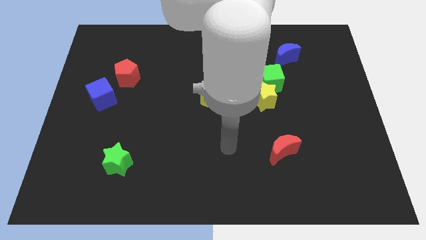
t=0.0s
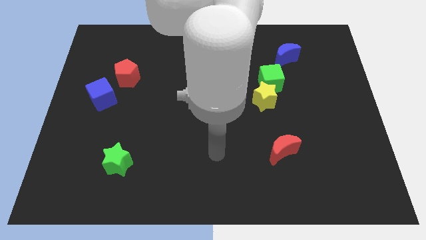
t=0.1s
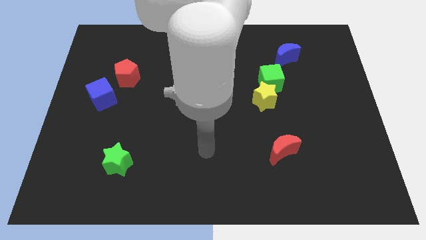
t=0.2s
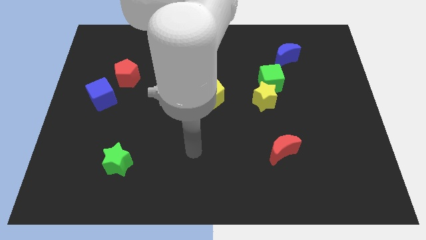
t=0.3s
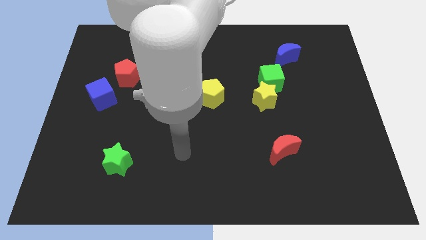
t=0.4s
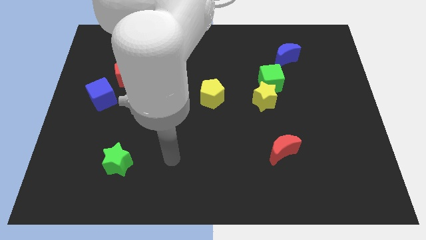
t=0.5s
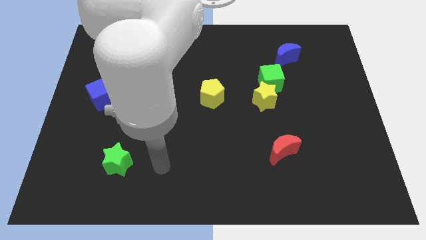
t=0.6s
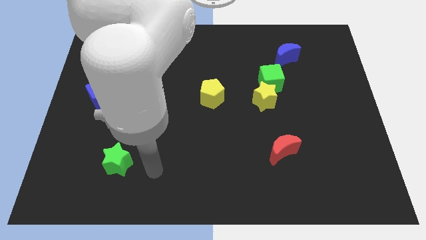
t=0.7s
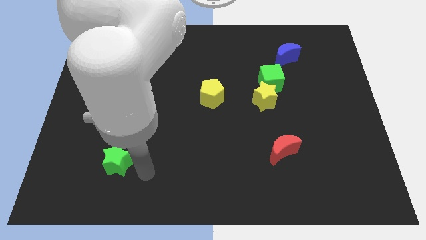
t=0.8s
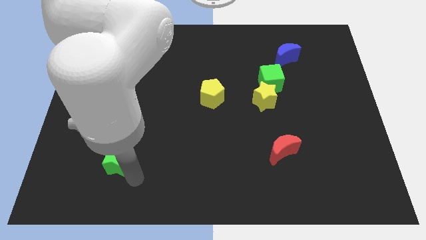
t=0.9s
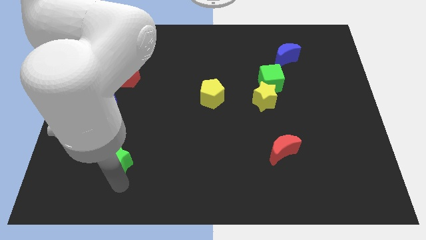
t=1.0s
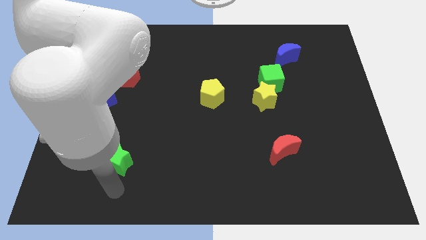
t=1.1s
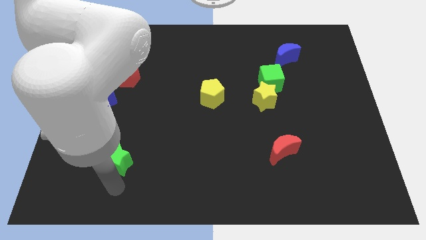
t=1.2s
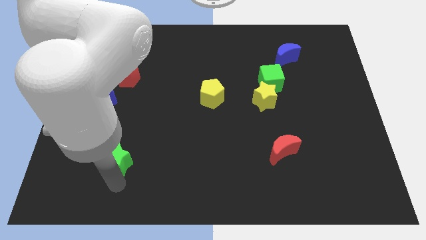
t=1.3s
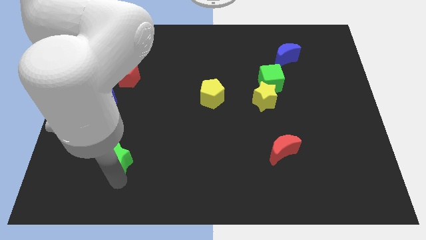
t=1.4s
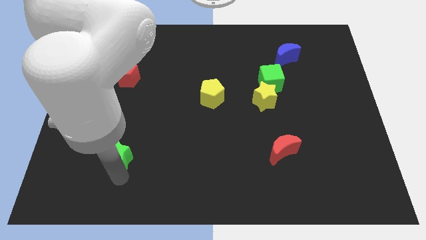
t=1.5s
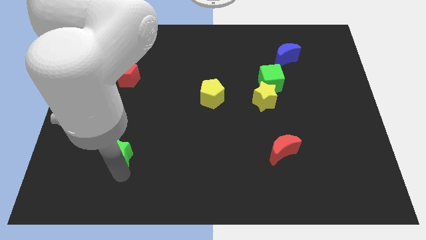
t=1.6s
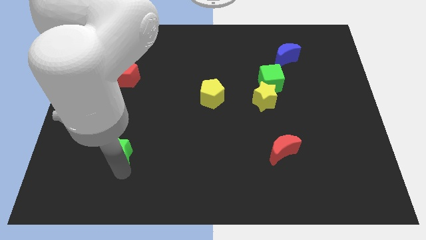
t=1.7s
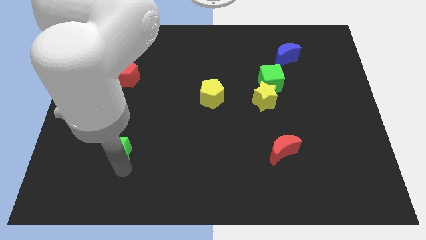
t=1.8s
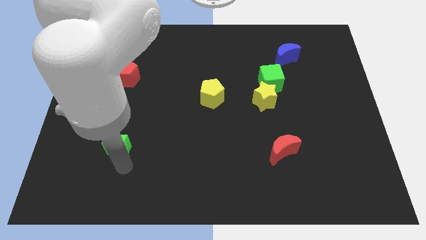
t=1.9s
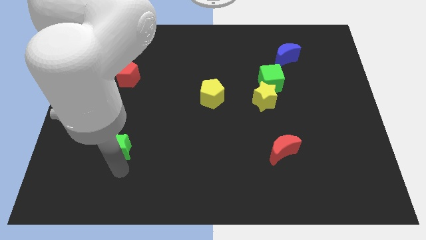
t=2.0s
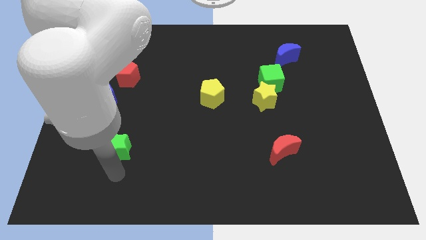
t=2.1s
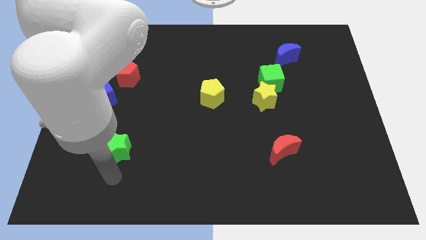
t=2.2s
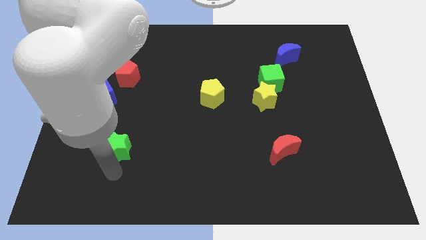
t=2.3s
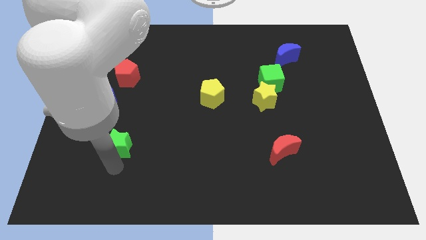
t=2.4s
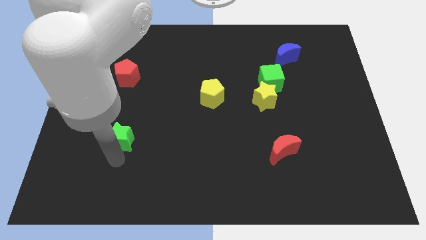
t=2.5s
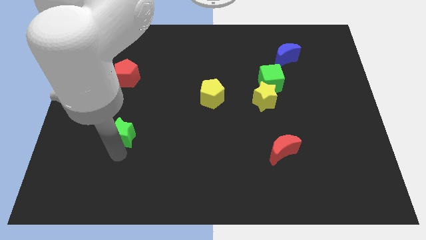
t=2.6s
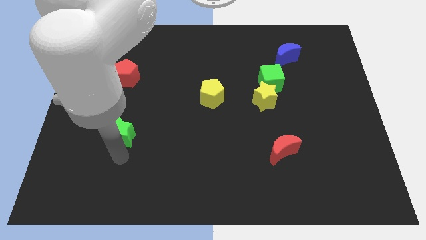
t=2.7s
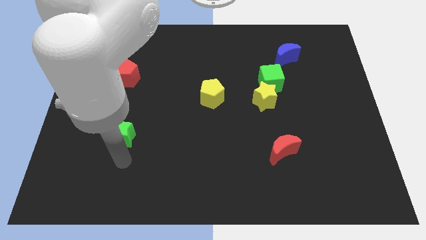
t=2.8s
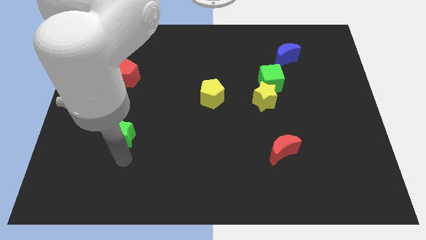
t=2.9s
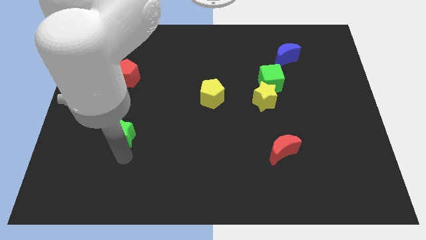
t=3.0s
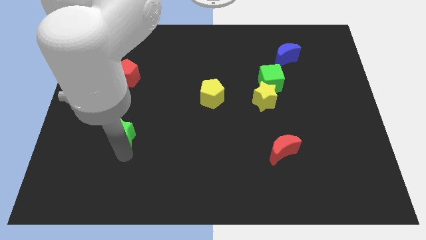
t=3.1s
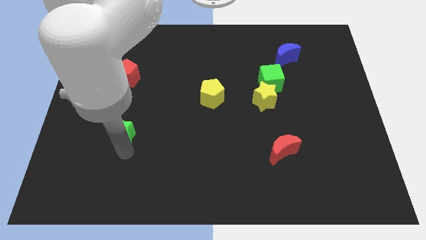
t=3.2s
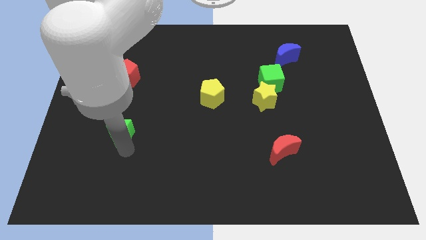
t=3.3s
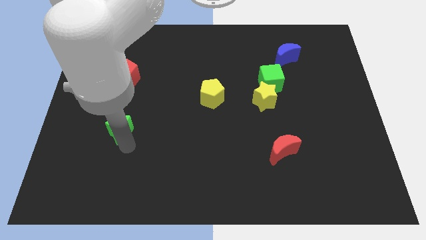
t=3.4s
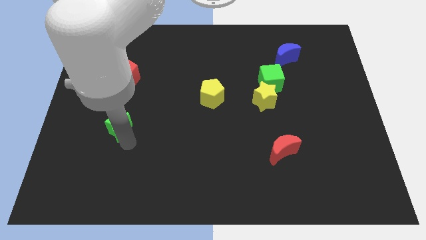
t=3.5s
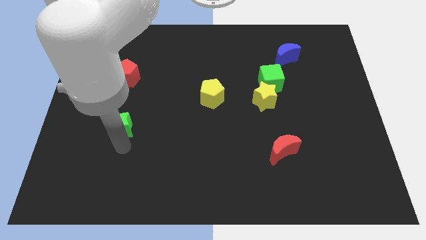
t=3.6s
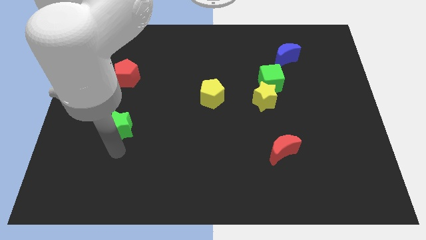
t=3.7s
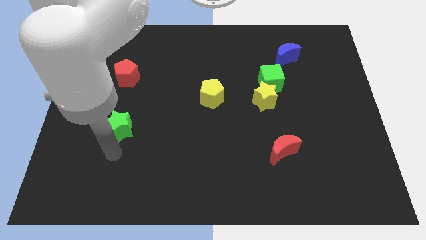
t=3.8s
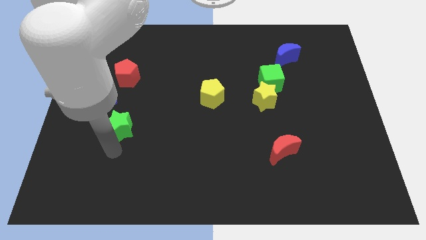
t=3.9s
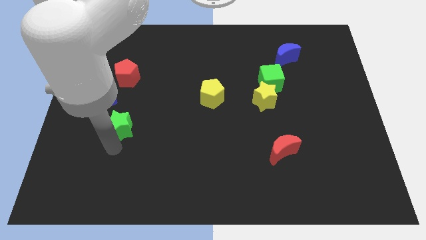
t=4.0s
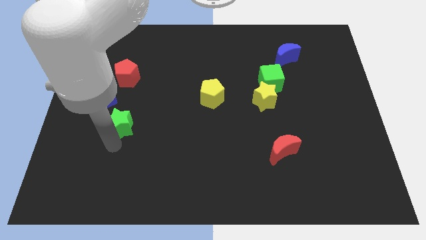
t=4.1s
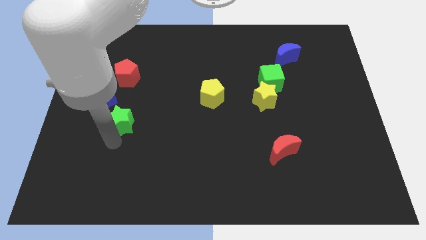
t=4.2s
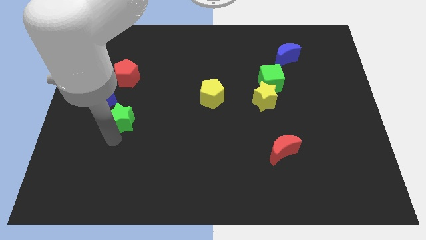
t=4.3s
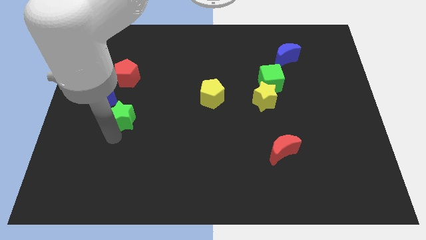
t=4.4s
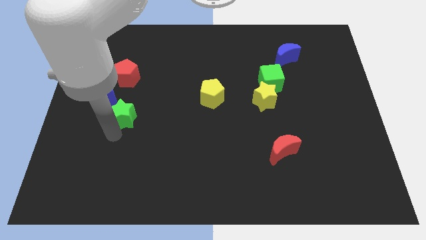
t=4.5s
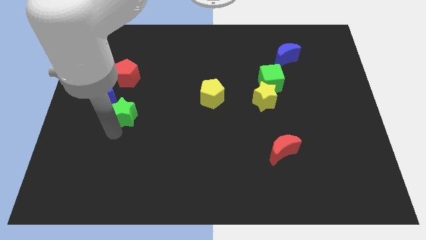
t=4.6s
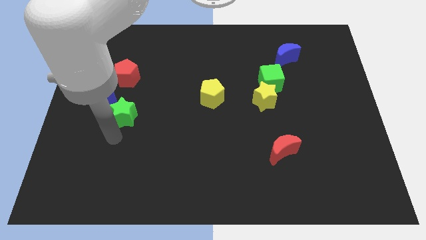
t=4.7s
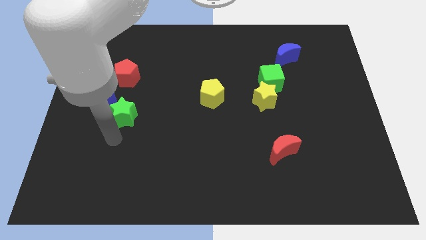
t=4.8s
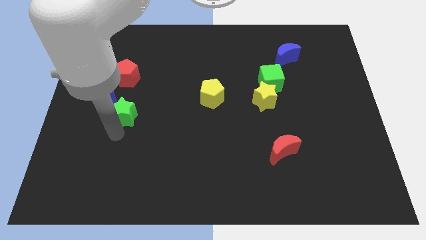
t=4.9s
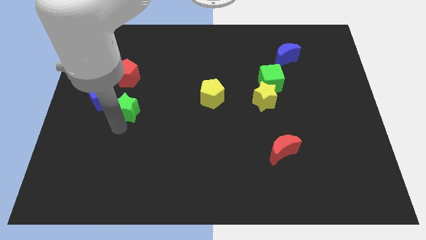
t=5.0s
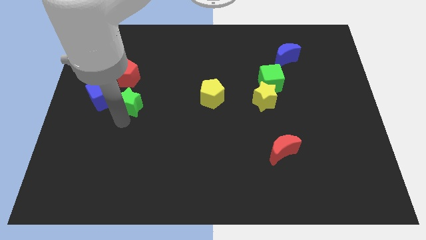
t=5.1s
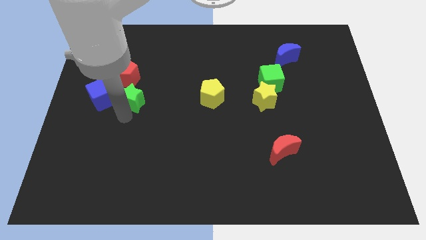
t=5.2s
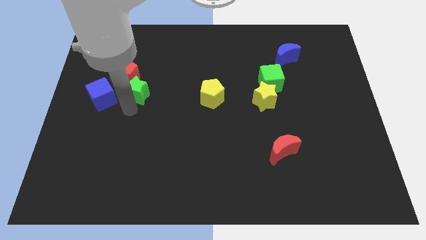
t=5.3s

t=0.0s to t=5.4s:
put the green star next to the red pentagon

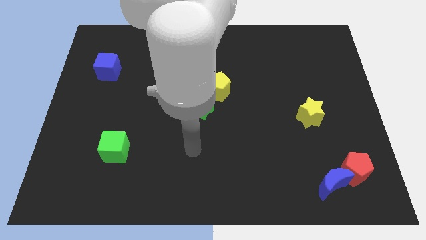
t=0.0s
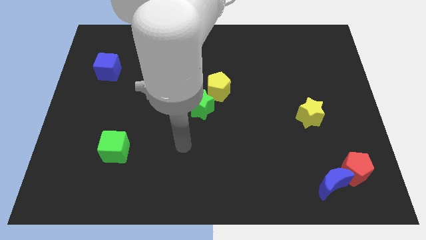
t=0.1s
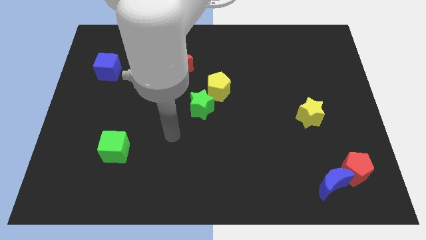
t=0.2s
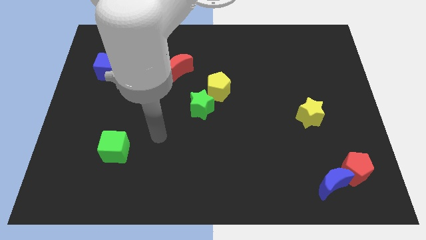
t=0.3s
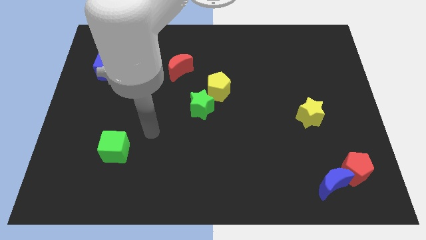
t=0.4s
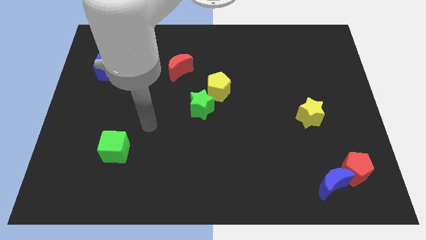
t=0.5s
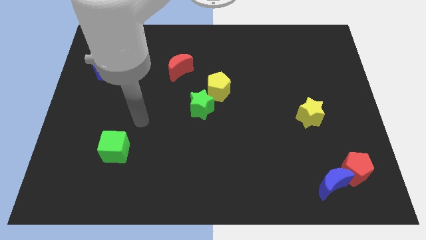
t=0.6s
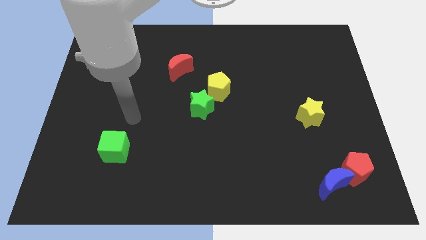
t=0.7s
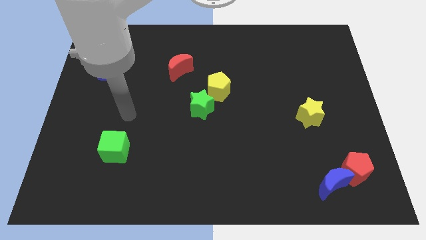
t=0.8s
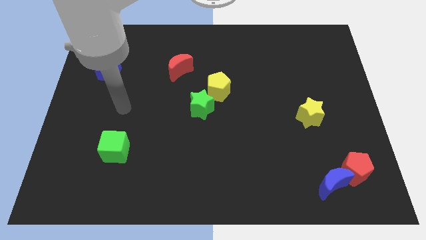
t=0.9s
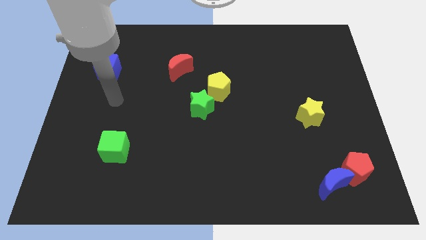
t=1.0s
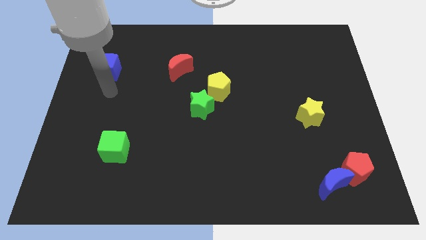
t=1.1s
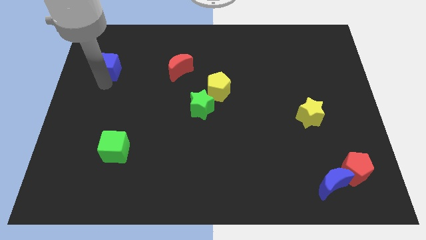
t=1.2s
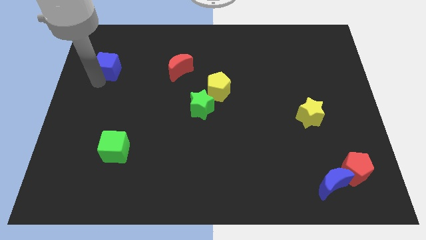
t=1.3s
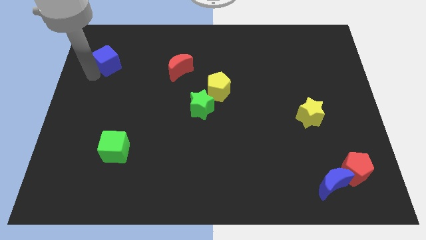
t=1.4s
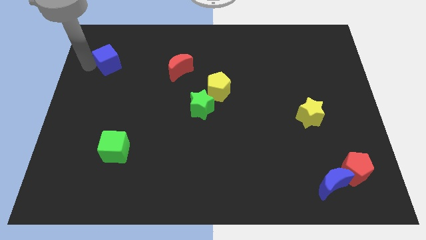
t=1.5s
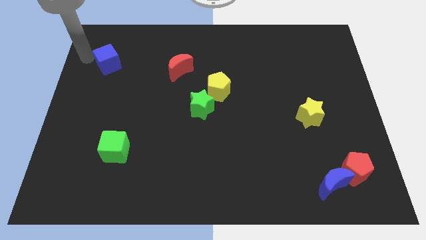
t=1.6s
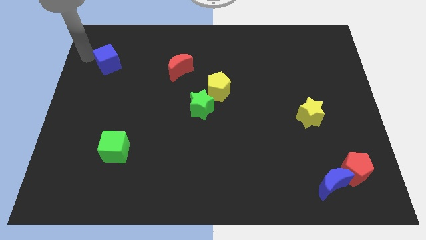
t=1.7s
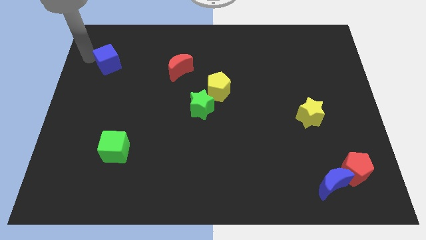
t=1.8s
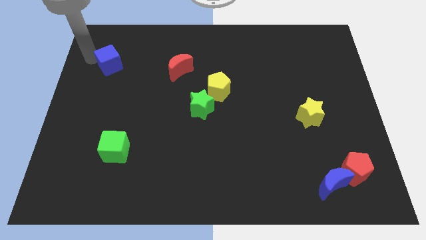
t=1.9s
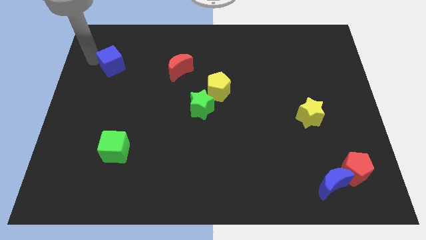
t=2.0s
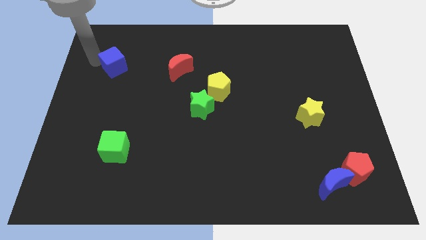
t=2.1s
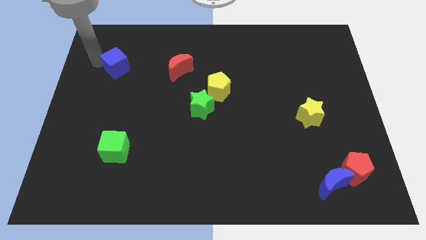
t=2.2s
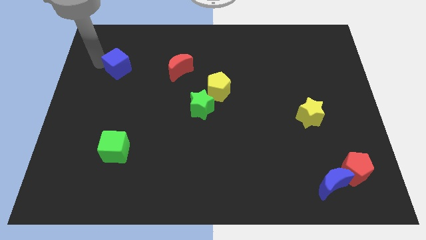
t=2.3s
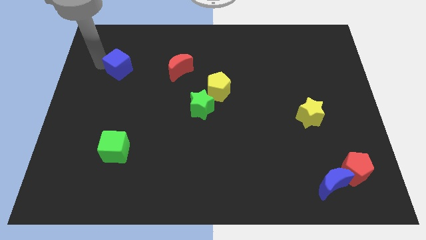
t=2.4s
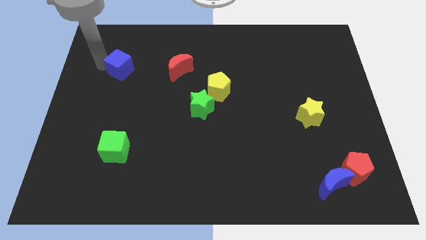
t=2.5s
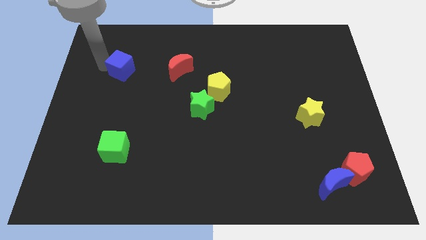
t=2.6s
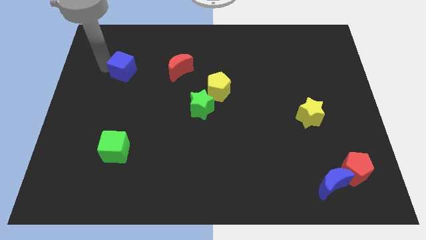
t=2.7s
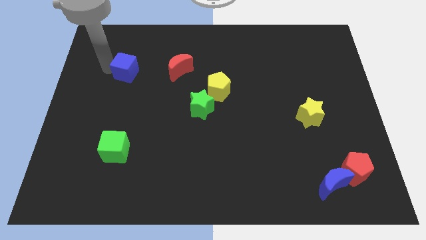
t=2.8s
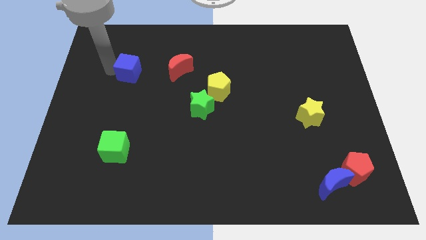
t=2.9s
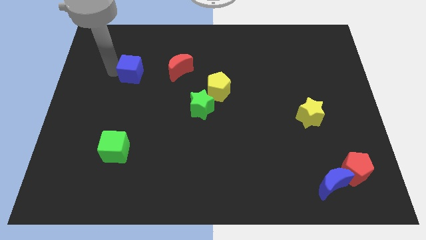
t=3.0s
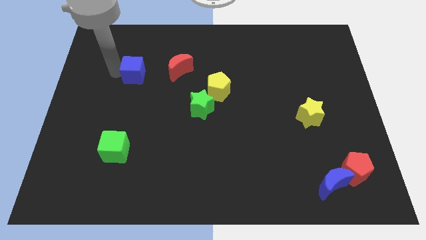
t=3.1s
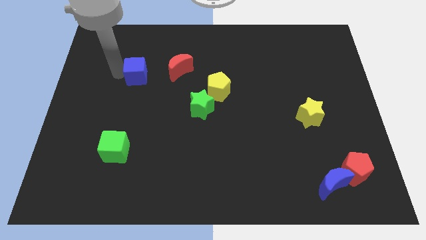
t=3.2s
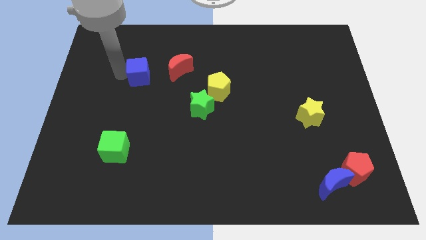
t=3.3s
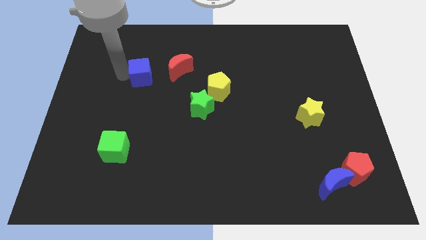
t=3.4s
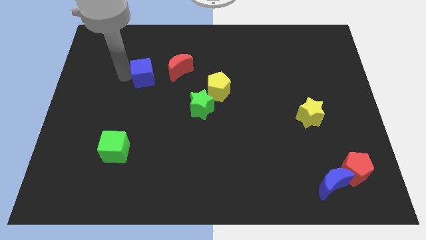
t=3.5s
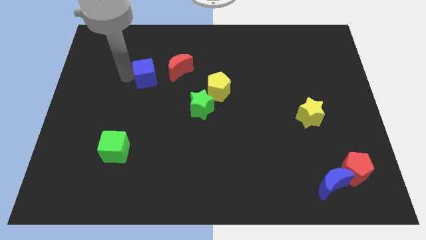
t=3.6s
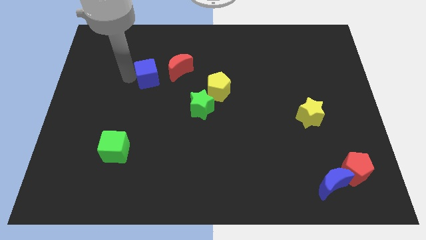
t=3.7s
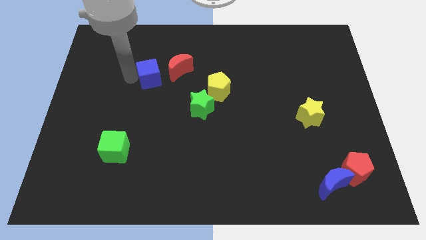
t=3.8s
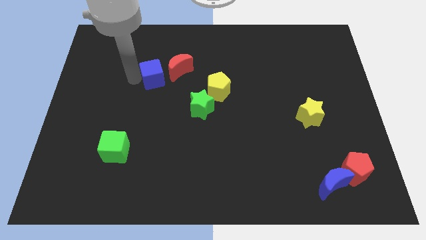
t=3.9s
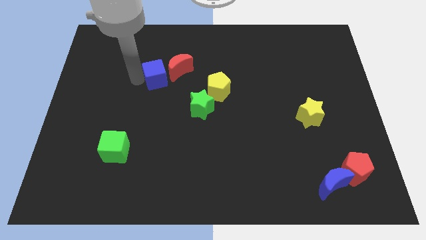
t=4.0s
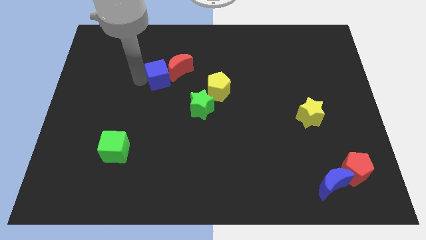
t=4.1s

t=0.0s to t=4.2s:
slide the blue cube towards the red moon
